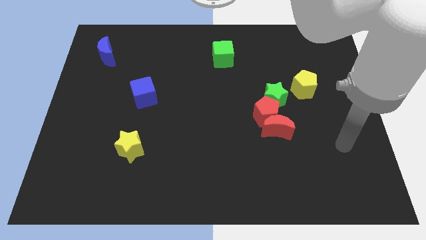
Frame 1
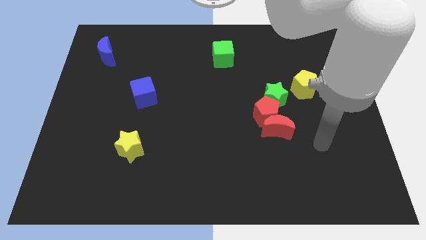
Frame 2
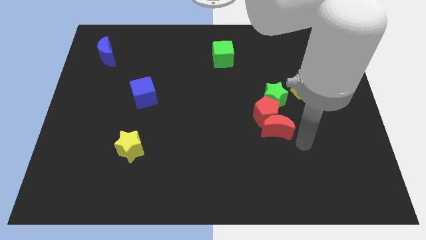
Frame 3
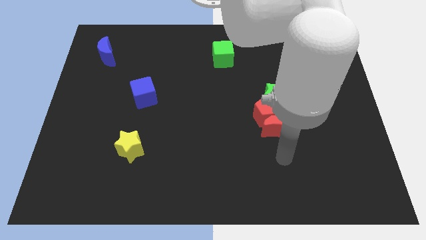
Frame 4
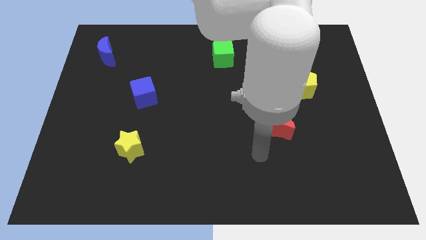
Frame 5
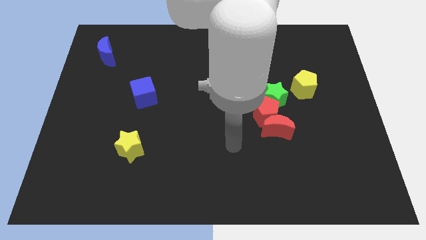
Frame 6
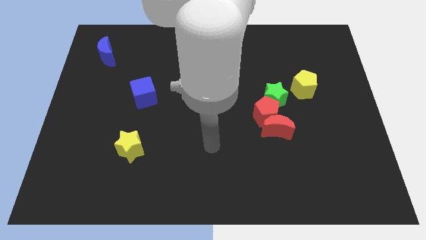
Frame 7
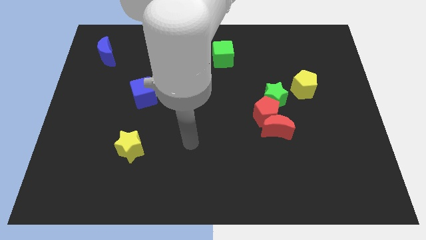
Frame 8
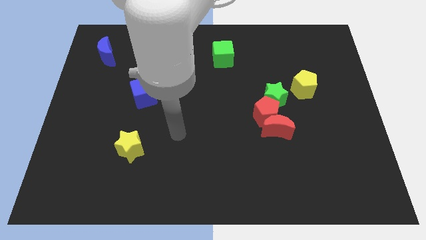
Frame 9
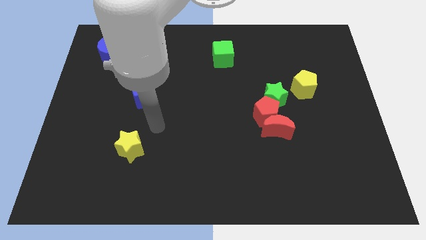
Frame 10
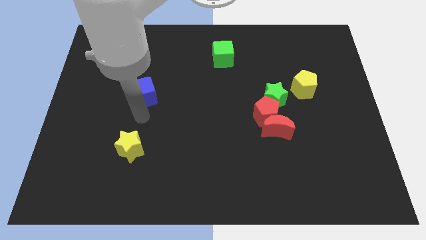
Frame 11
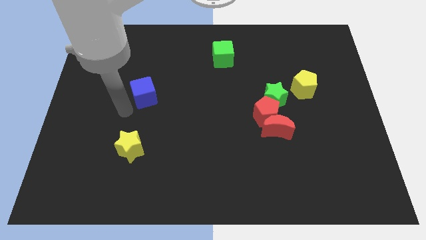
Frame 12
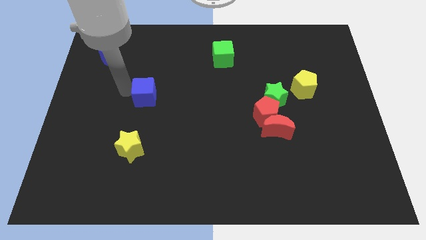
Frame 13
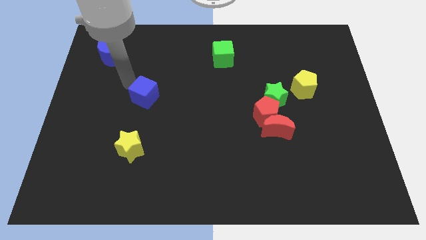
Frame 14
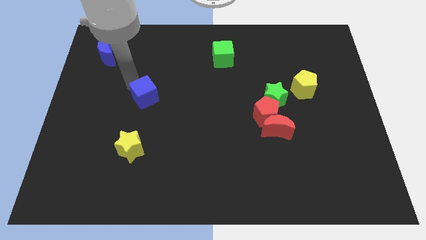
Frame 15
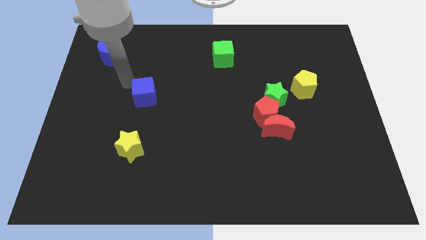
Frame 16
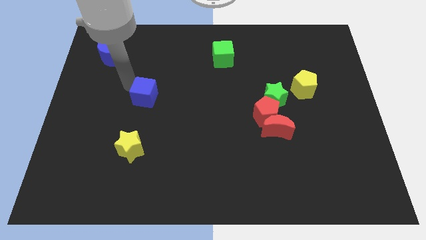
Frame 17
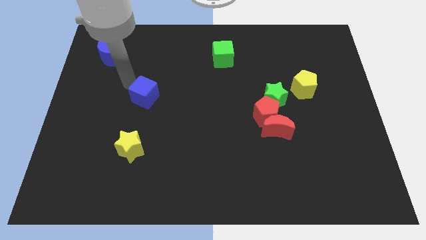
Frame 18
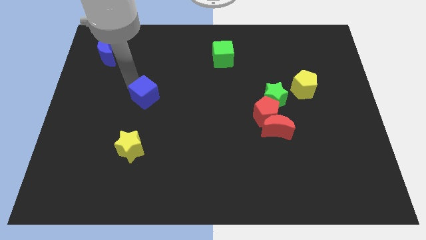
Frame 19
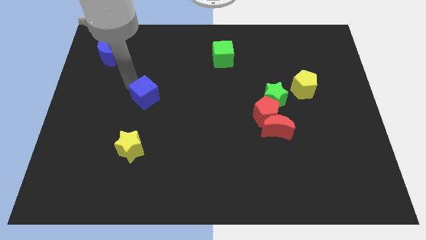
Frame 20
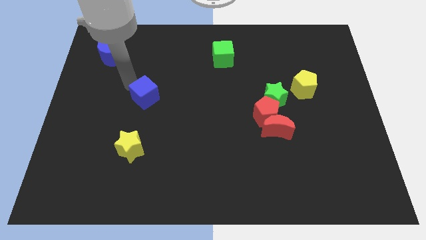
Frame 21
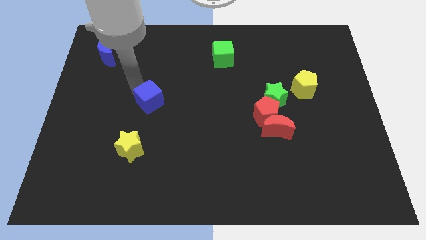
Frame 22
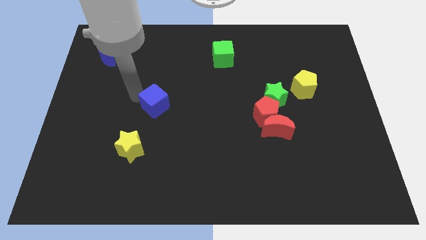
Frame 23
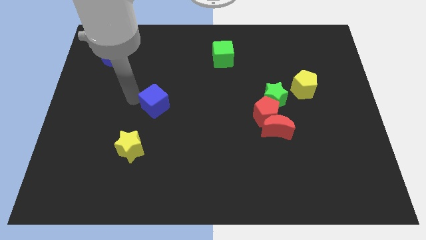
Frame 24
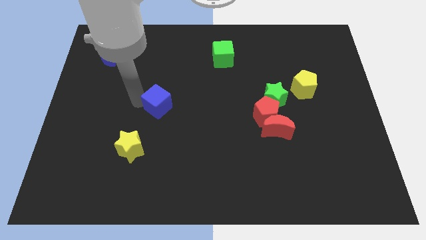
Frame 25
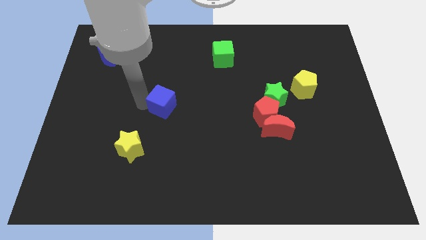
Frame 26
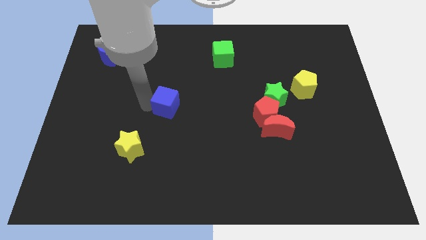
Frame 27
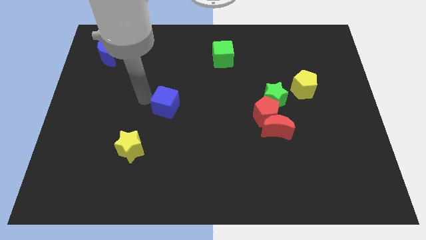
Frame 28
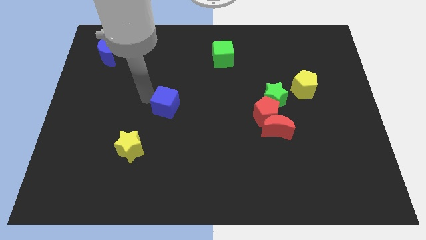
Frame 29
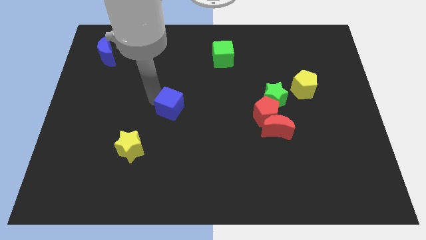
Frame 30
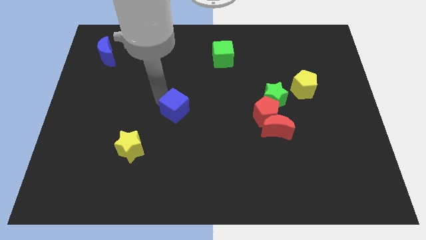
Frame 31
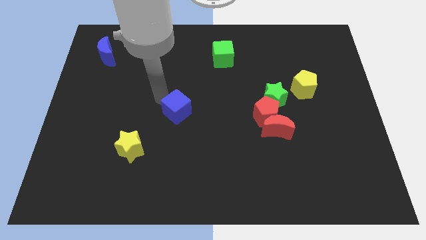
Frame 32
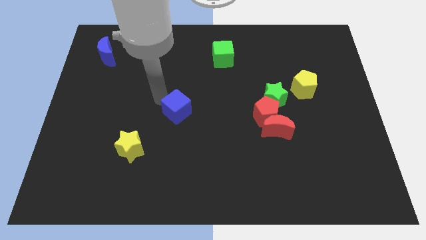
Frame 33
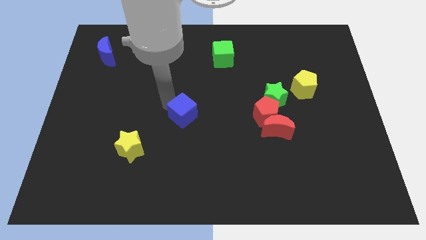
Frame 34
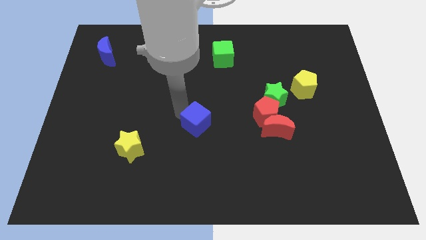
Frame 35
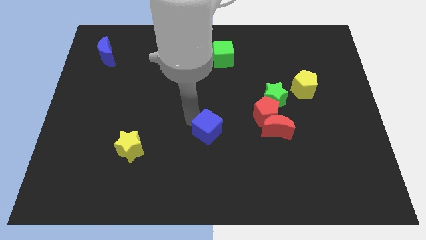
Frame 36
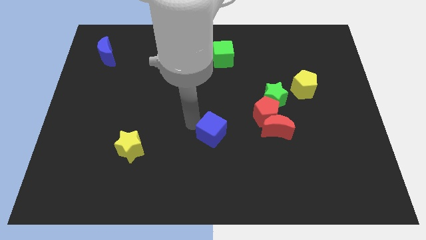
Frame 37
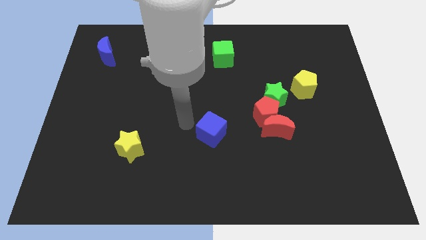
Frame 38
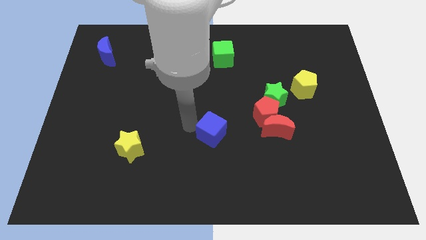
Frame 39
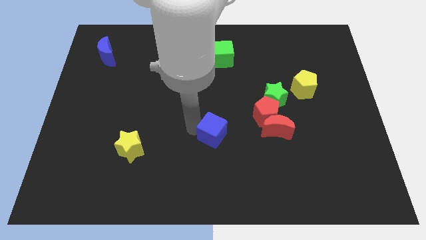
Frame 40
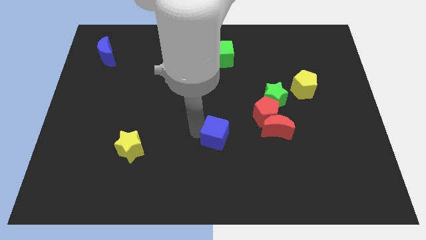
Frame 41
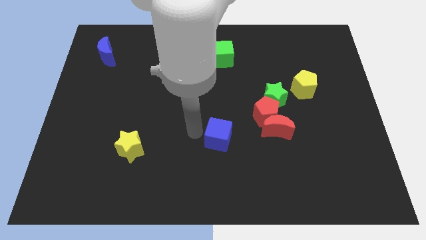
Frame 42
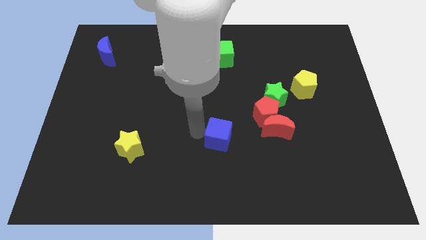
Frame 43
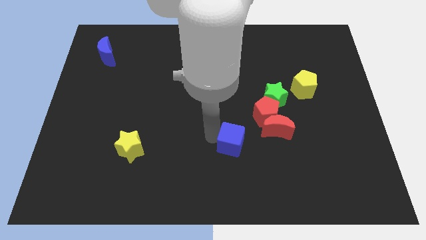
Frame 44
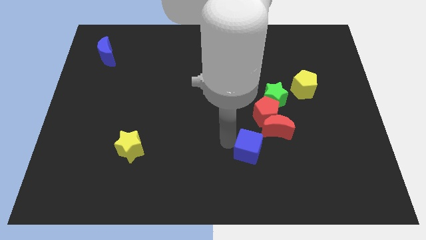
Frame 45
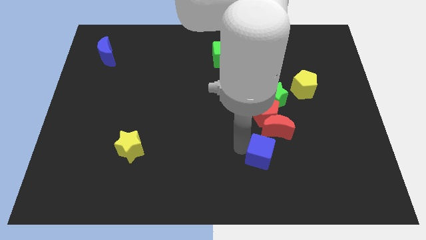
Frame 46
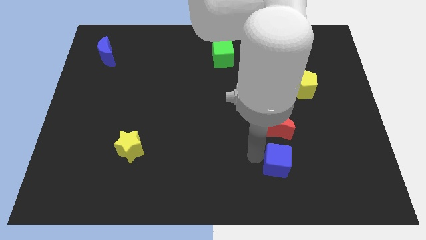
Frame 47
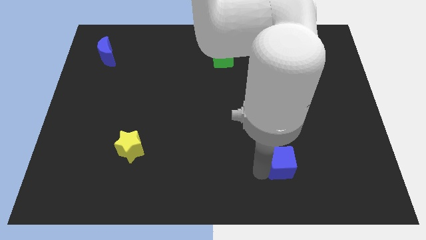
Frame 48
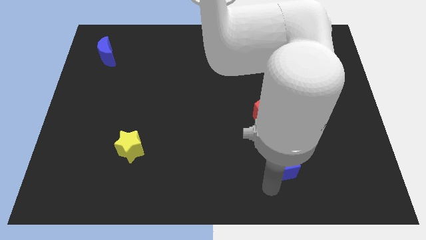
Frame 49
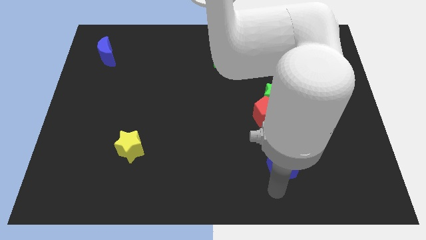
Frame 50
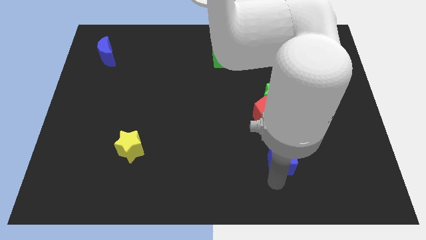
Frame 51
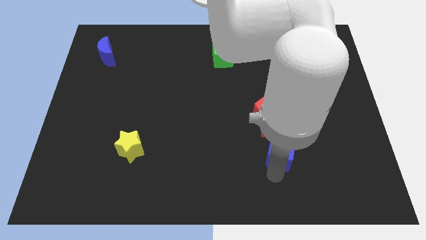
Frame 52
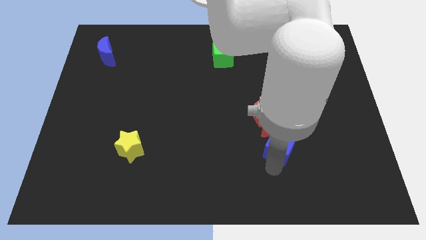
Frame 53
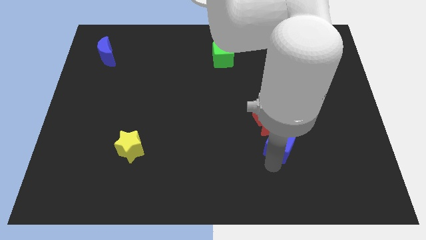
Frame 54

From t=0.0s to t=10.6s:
move the blue cube to the bottom right side of the red pentagon

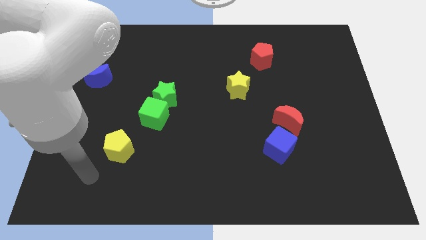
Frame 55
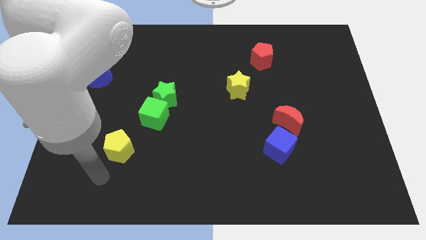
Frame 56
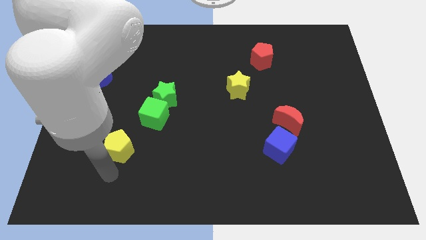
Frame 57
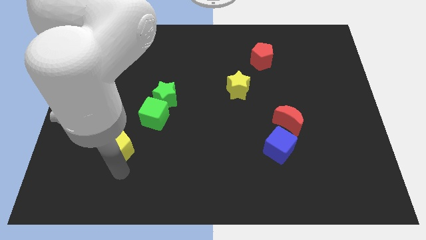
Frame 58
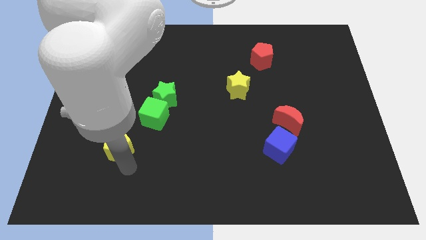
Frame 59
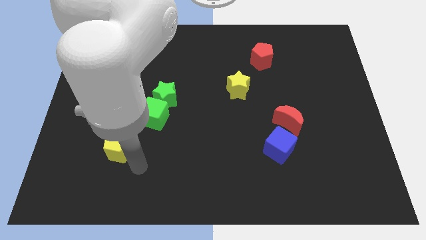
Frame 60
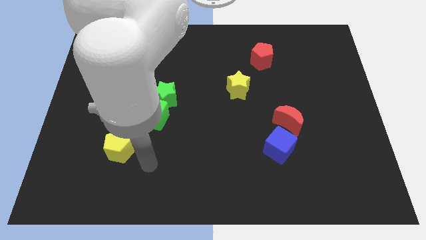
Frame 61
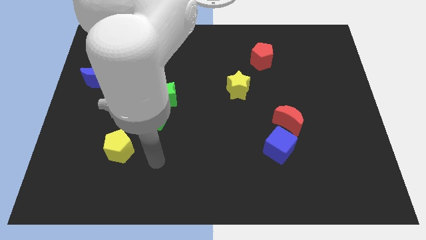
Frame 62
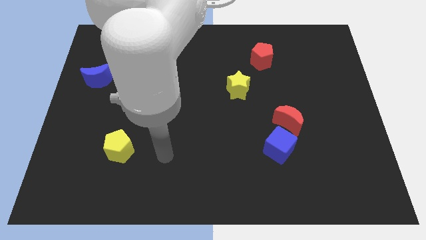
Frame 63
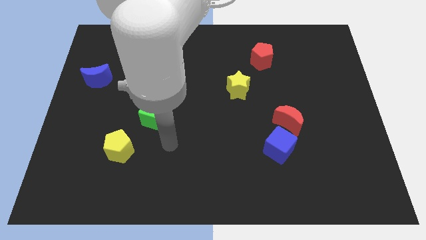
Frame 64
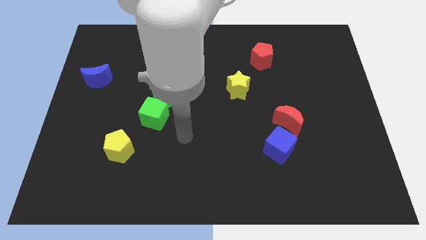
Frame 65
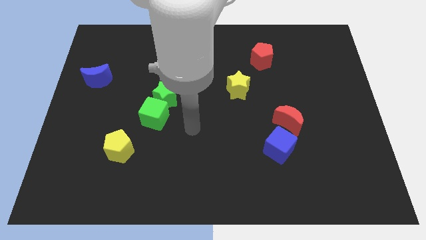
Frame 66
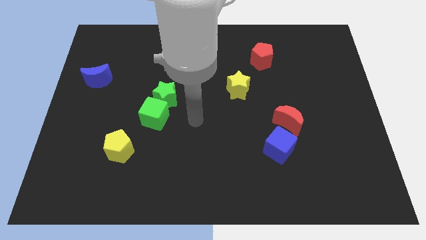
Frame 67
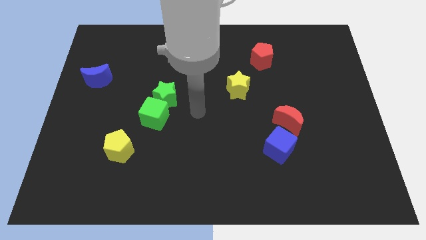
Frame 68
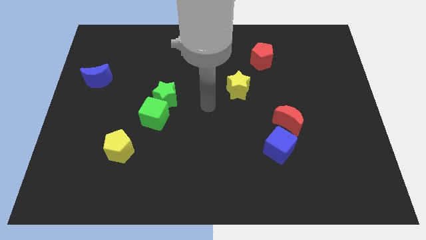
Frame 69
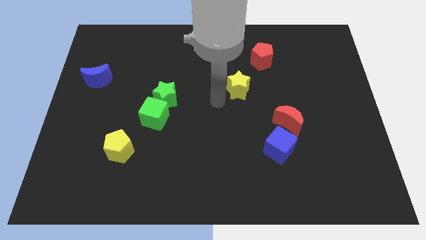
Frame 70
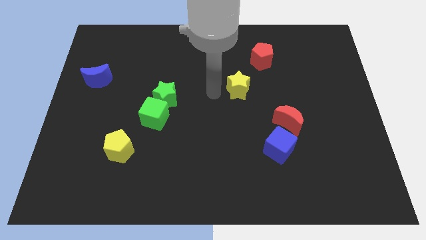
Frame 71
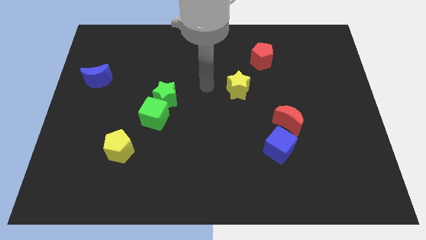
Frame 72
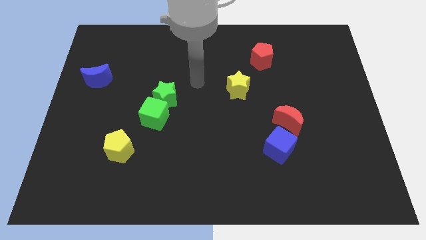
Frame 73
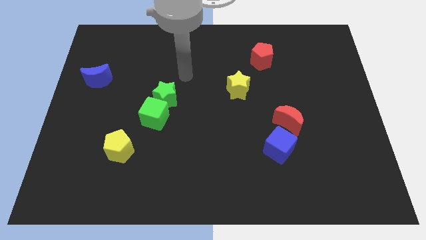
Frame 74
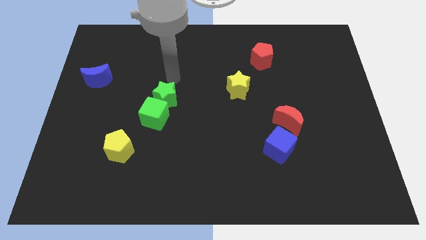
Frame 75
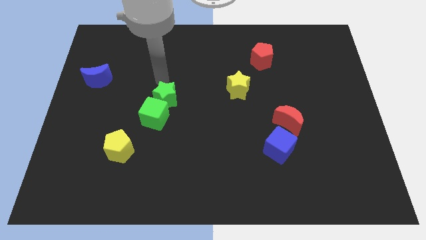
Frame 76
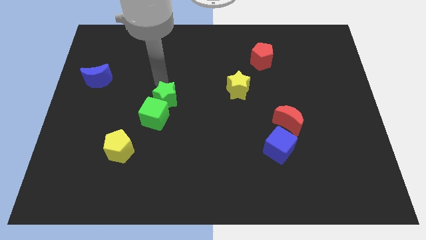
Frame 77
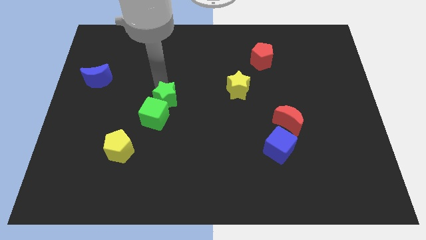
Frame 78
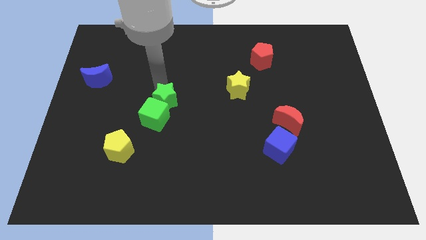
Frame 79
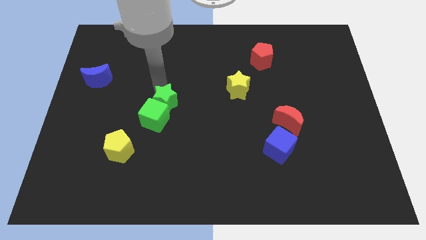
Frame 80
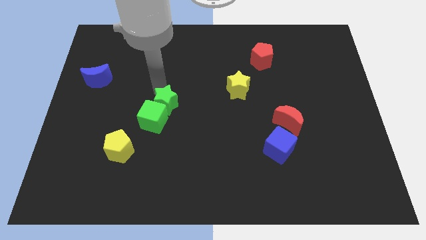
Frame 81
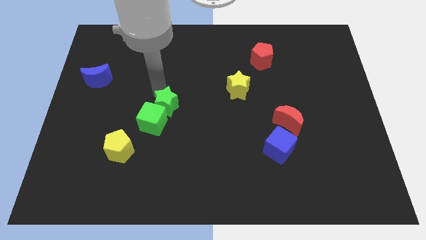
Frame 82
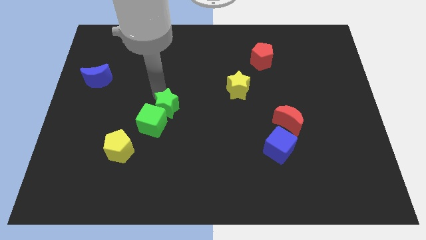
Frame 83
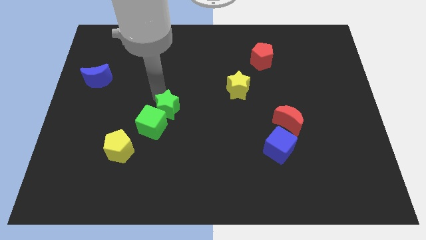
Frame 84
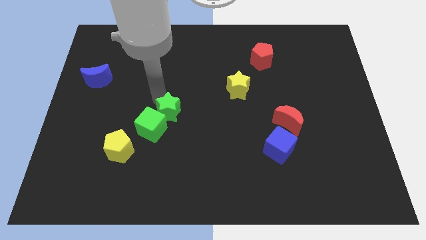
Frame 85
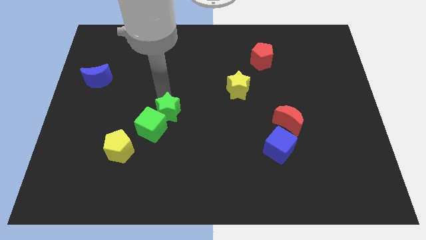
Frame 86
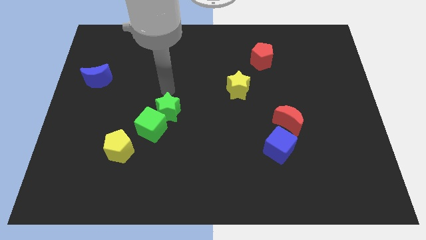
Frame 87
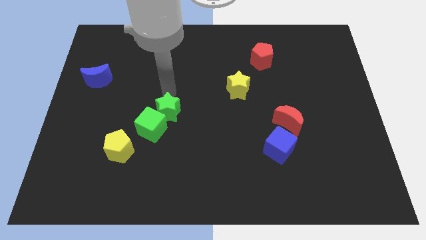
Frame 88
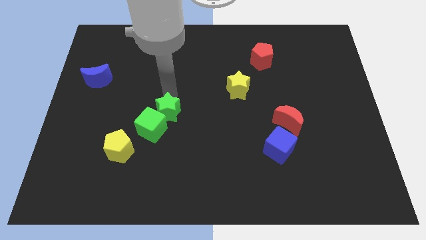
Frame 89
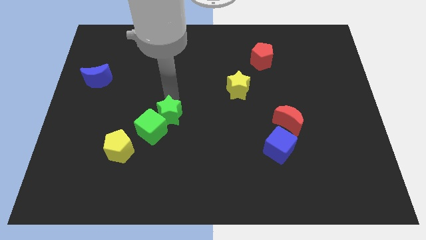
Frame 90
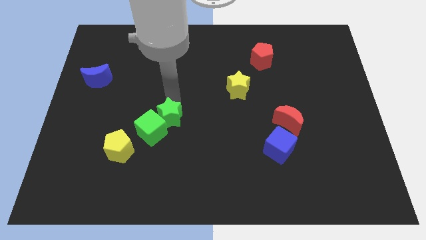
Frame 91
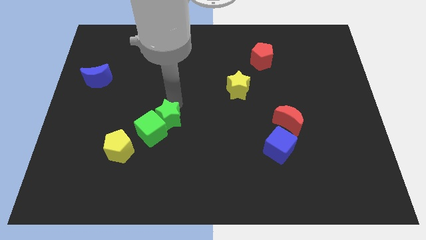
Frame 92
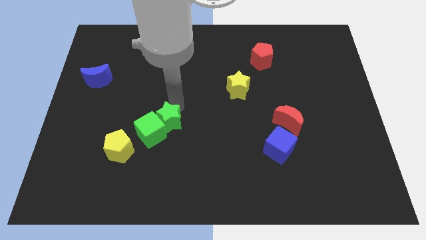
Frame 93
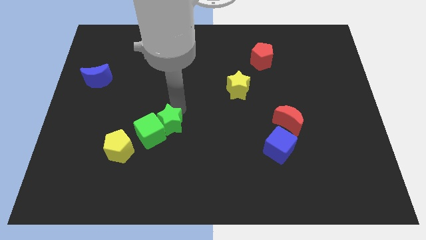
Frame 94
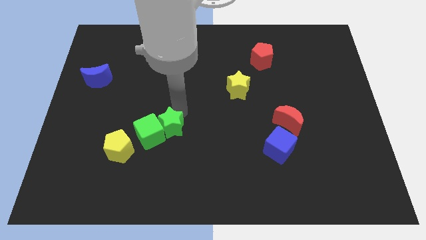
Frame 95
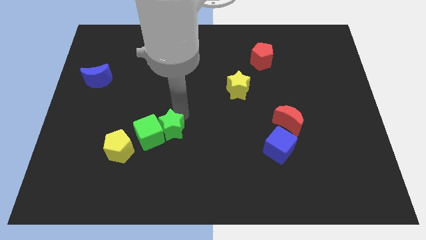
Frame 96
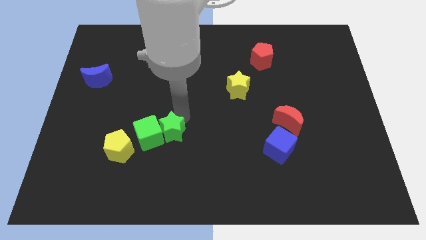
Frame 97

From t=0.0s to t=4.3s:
put the green star to the bottom right of the green cube
